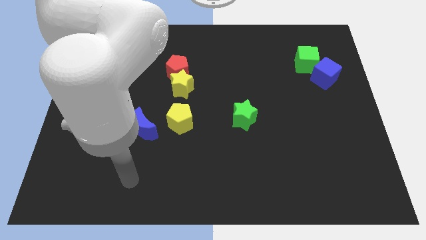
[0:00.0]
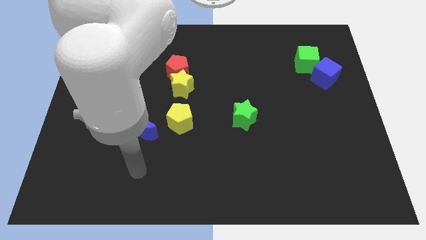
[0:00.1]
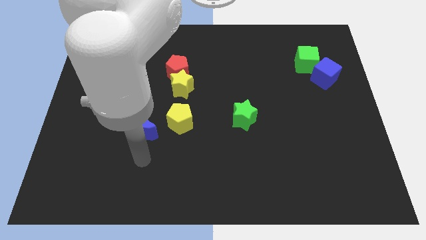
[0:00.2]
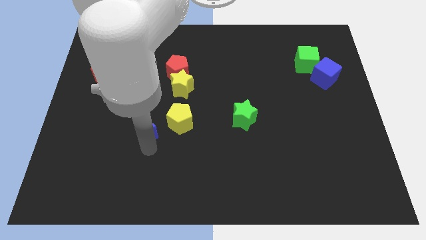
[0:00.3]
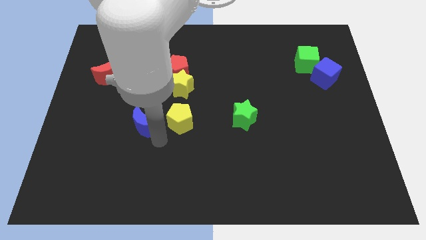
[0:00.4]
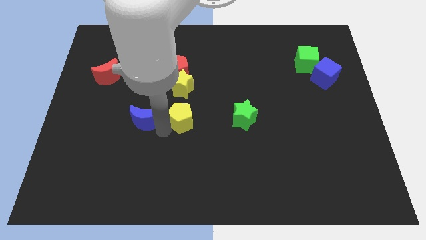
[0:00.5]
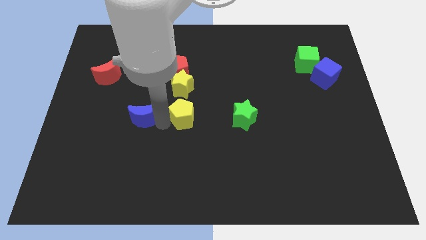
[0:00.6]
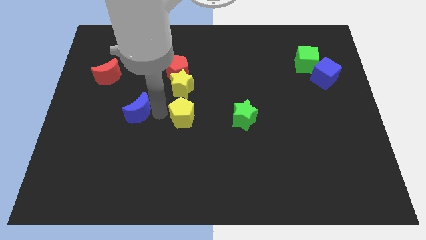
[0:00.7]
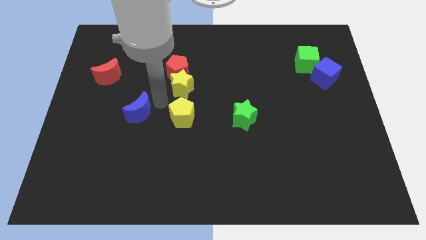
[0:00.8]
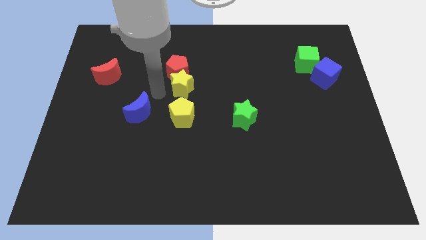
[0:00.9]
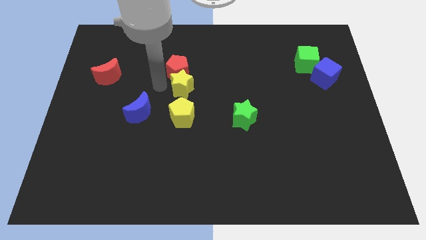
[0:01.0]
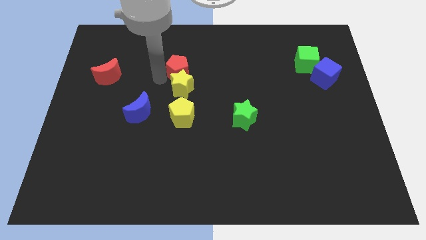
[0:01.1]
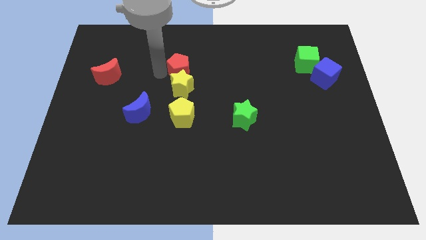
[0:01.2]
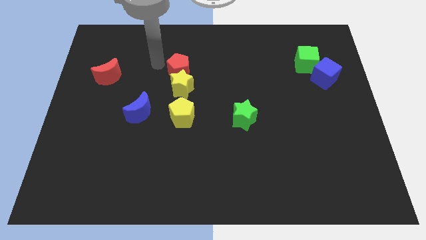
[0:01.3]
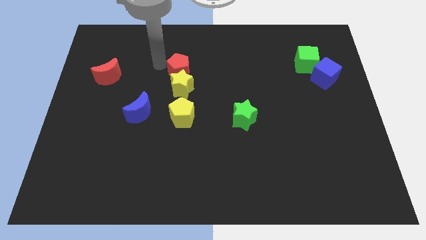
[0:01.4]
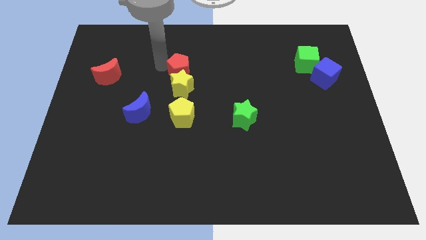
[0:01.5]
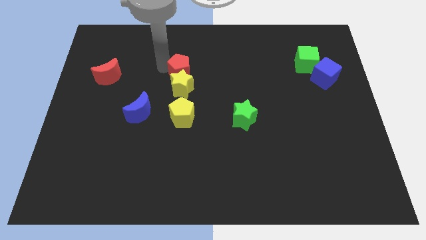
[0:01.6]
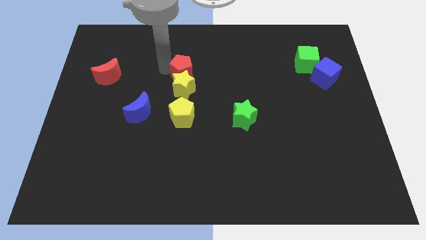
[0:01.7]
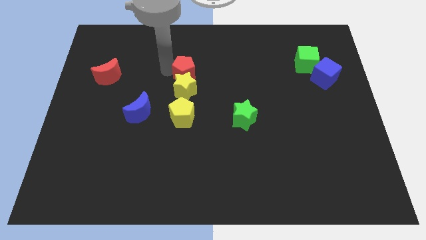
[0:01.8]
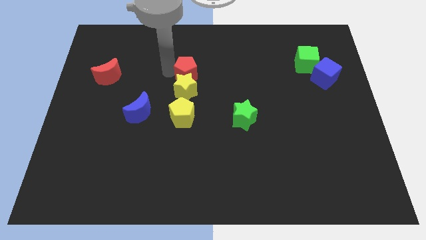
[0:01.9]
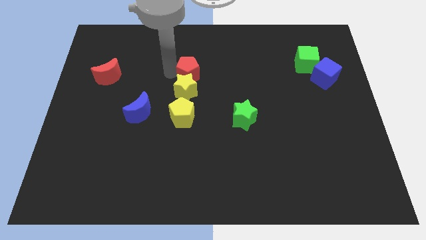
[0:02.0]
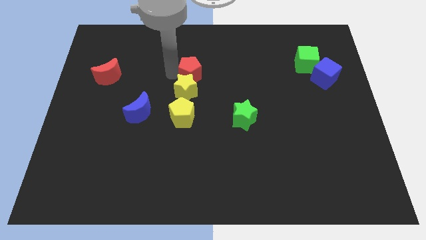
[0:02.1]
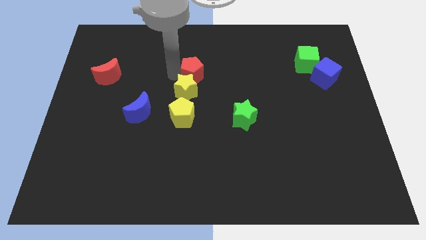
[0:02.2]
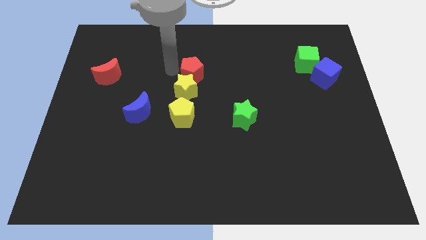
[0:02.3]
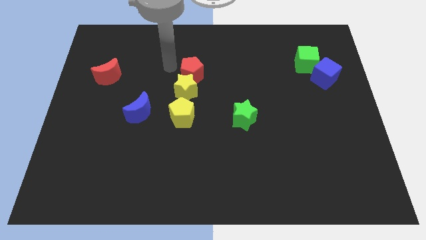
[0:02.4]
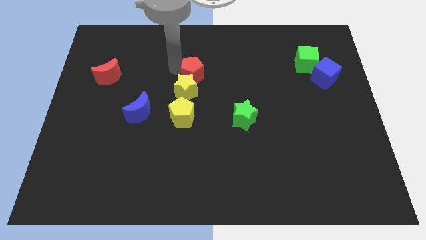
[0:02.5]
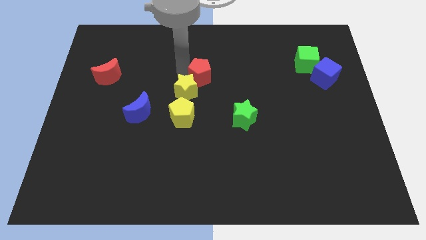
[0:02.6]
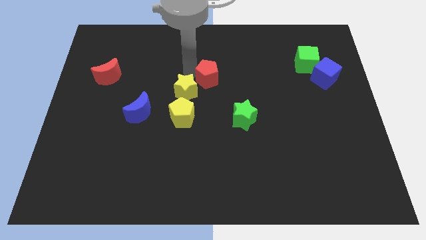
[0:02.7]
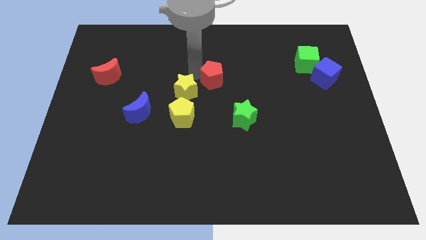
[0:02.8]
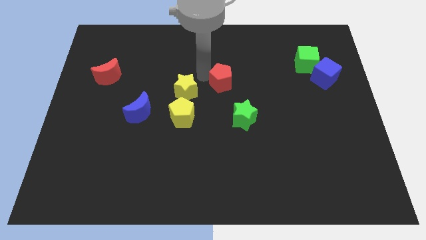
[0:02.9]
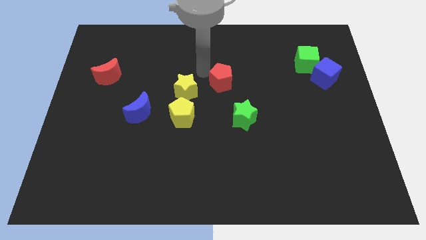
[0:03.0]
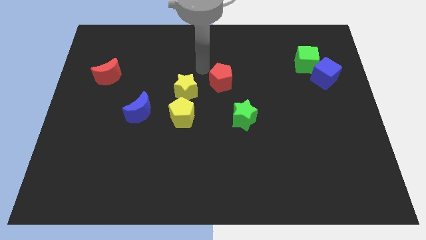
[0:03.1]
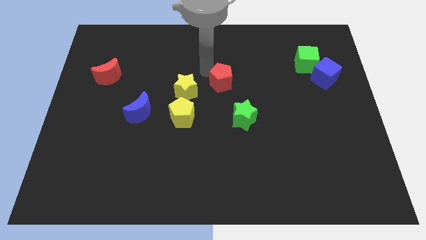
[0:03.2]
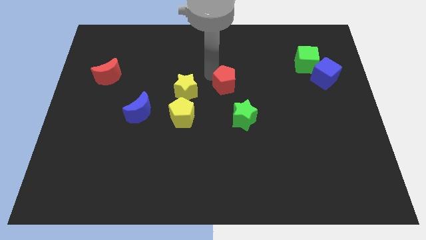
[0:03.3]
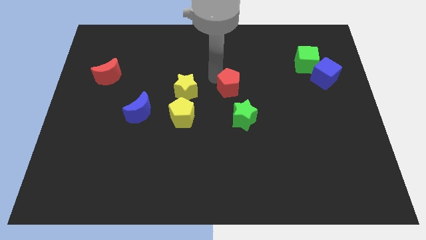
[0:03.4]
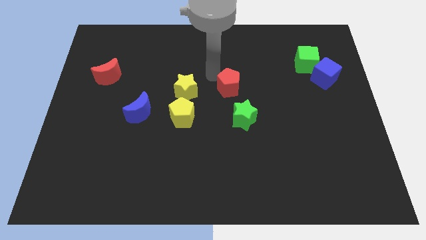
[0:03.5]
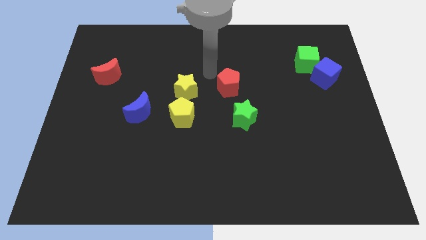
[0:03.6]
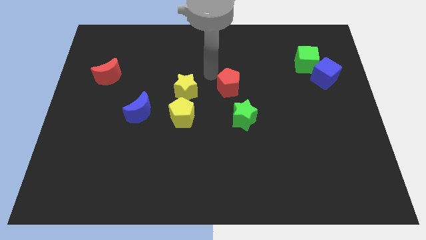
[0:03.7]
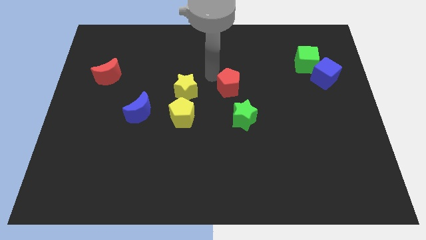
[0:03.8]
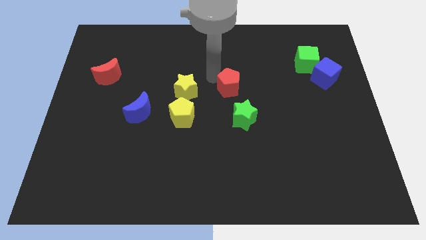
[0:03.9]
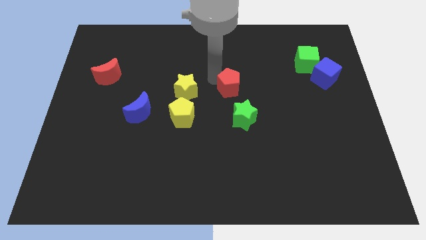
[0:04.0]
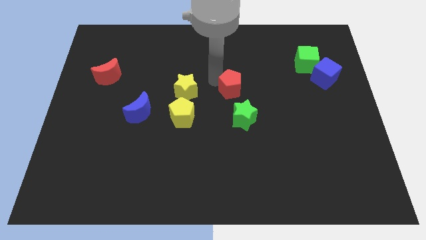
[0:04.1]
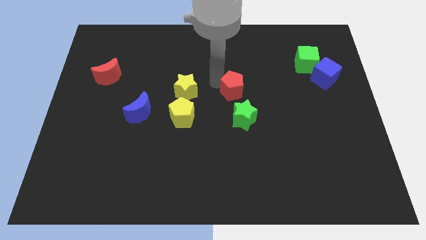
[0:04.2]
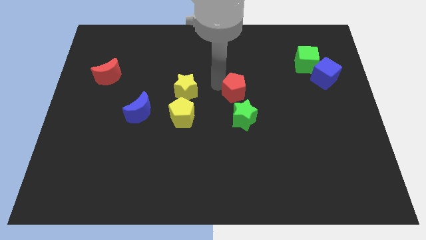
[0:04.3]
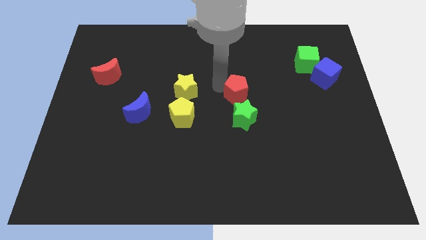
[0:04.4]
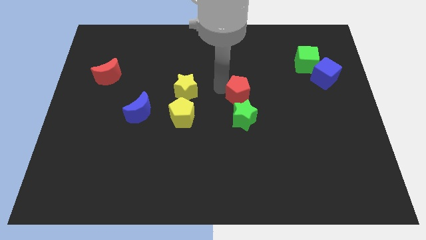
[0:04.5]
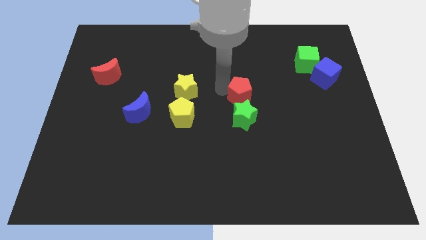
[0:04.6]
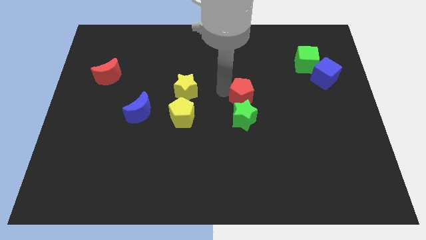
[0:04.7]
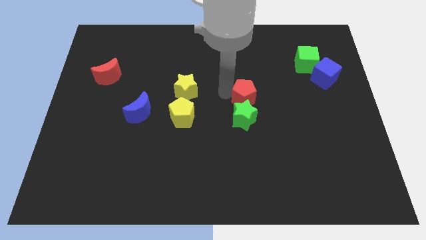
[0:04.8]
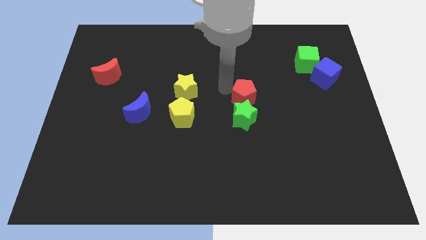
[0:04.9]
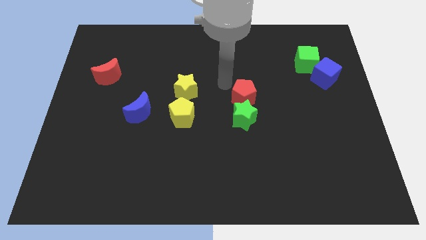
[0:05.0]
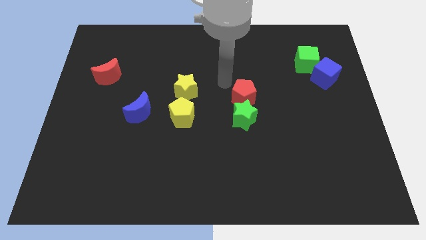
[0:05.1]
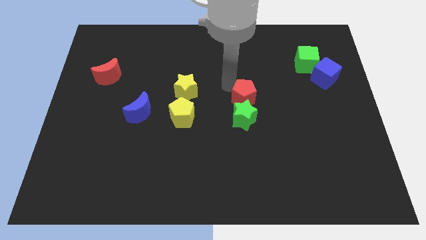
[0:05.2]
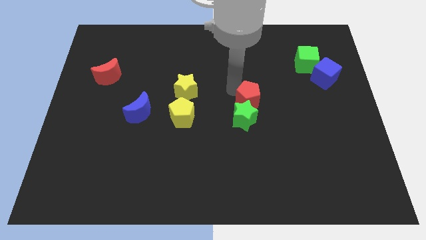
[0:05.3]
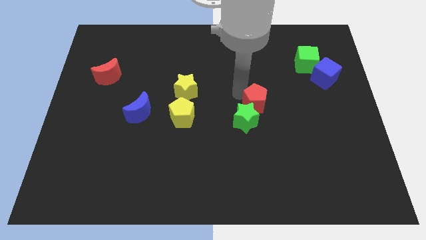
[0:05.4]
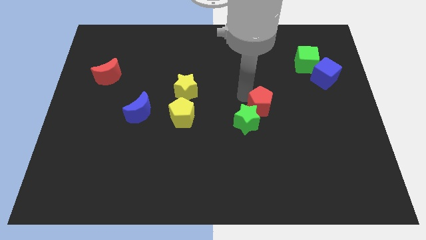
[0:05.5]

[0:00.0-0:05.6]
move the red pentagon diagonally down and right

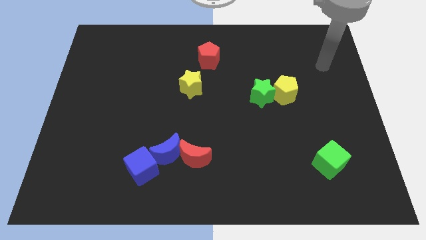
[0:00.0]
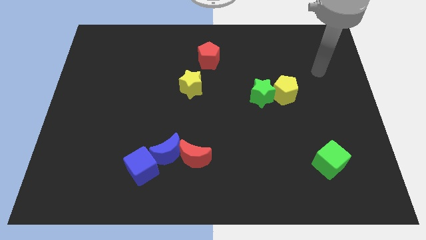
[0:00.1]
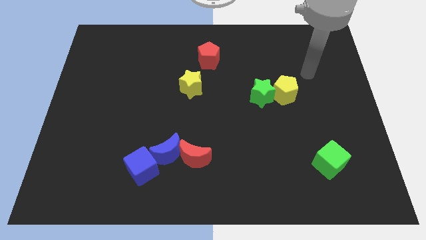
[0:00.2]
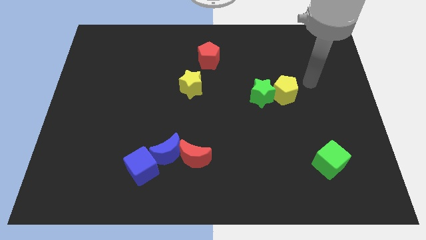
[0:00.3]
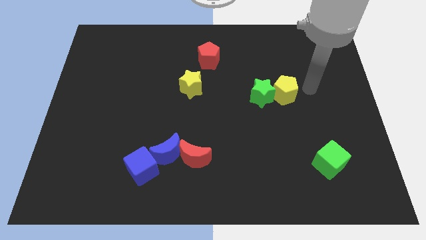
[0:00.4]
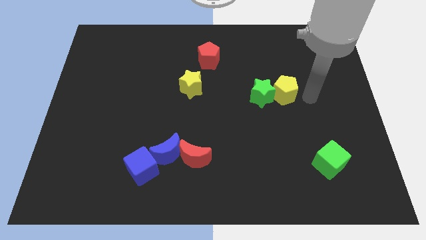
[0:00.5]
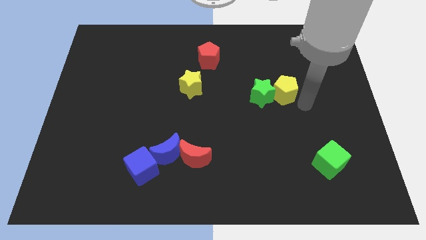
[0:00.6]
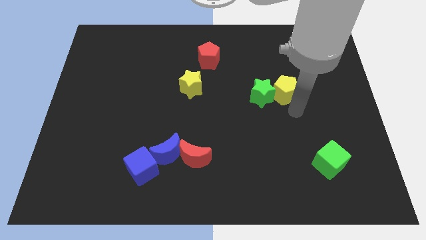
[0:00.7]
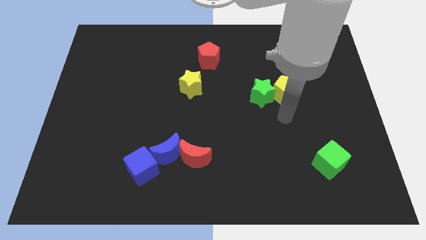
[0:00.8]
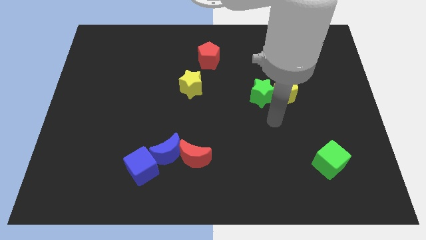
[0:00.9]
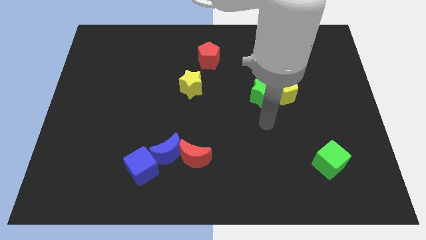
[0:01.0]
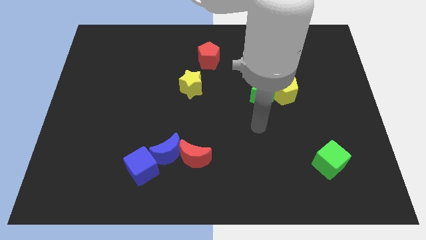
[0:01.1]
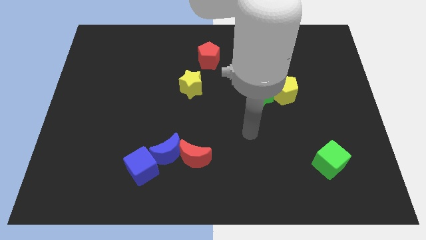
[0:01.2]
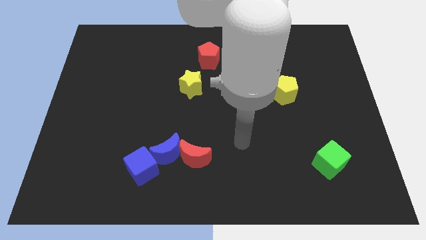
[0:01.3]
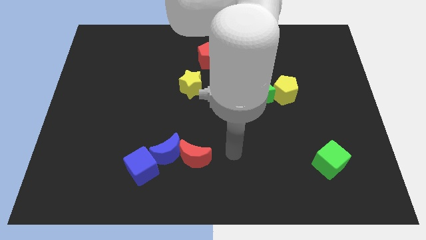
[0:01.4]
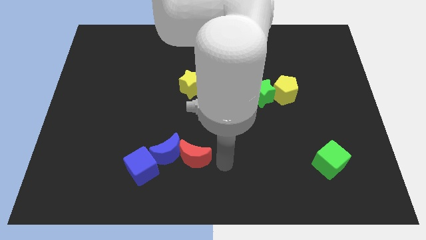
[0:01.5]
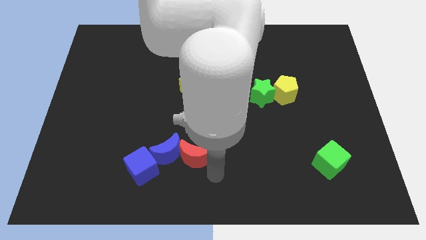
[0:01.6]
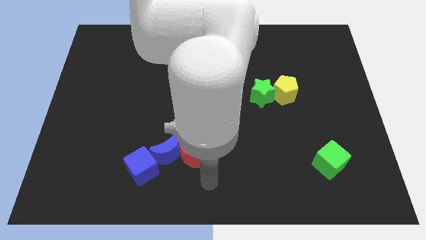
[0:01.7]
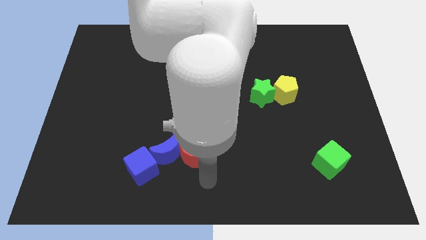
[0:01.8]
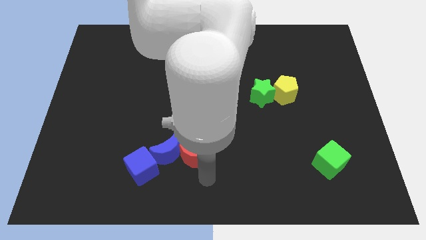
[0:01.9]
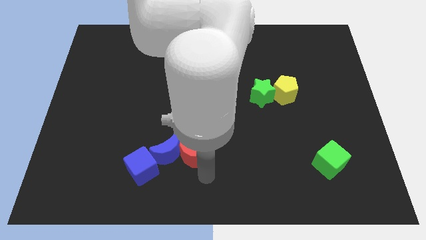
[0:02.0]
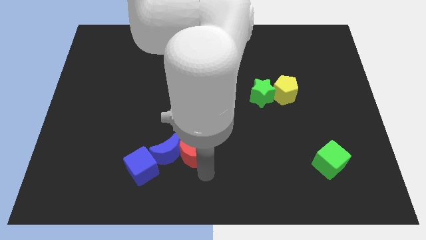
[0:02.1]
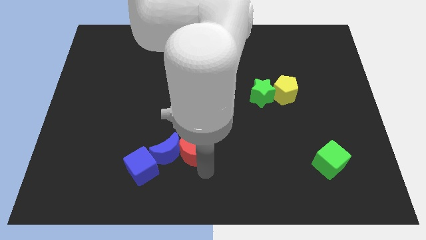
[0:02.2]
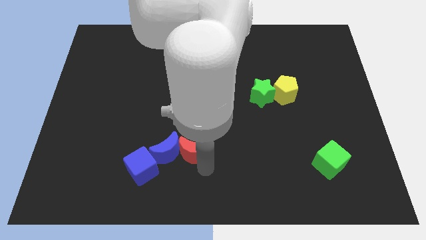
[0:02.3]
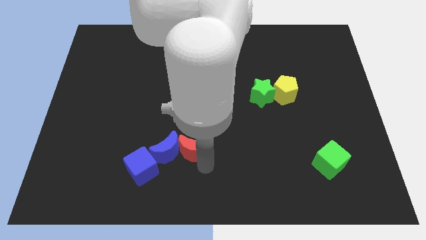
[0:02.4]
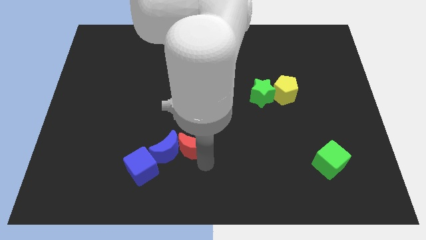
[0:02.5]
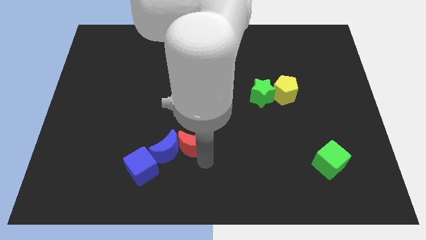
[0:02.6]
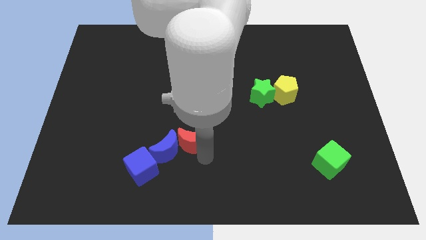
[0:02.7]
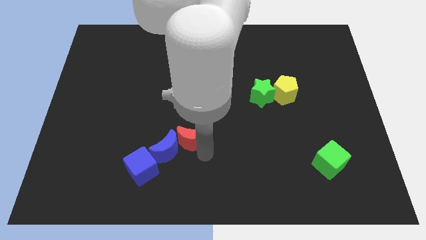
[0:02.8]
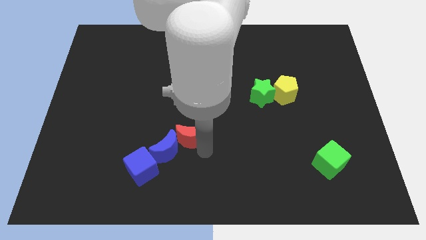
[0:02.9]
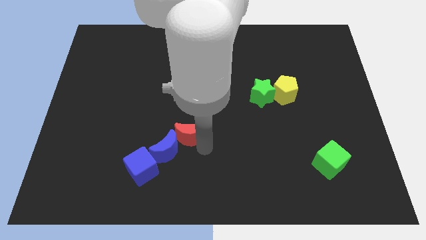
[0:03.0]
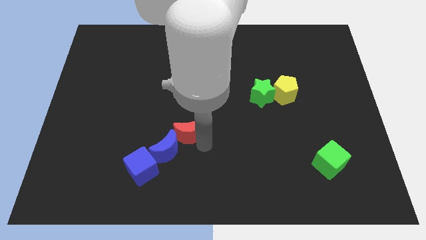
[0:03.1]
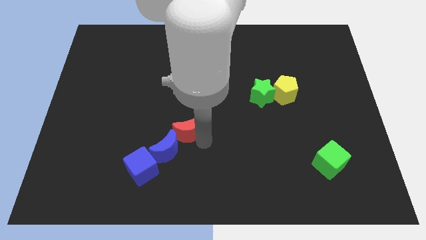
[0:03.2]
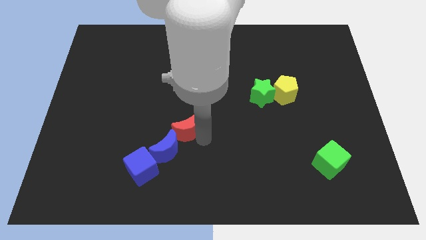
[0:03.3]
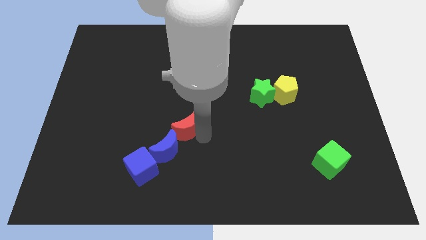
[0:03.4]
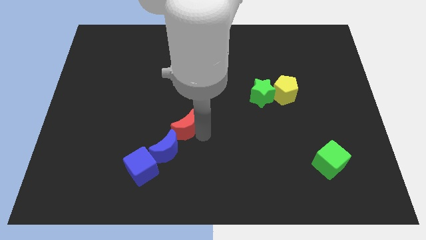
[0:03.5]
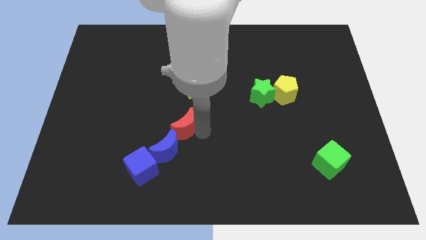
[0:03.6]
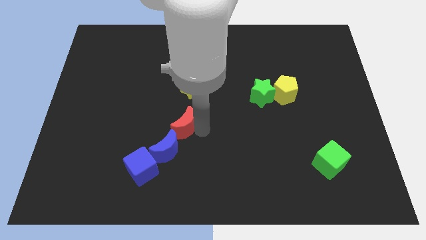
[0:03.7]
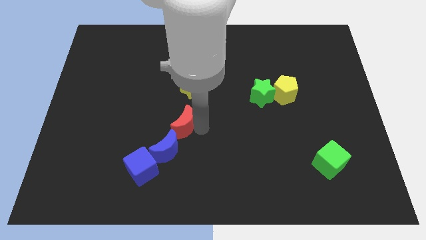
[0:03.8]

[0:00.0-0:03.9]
push the red moon up and to the left diagonally a little bit
